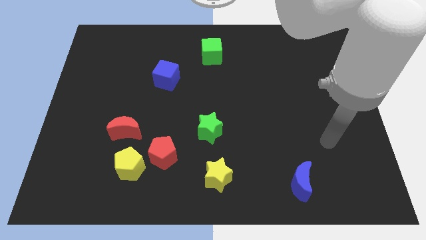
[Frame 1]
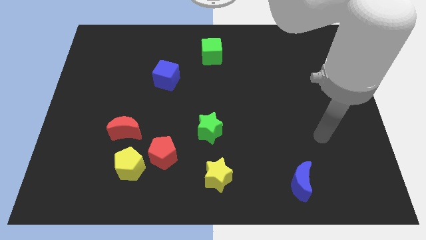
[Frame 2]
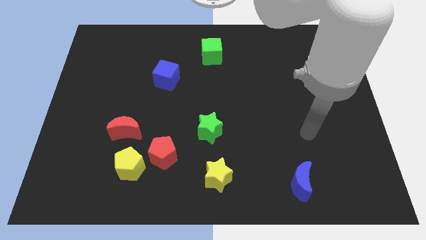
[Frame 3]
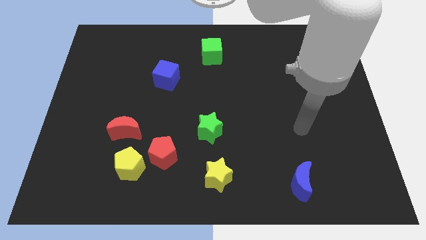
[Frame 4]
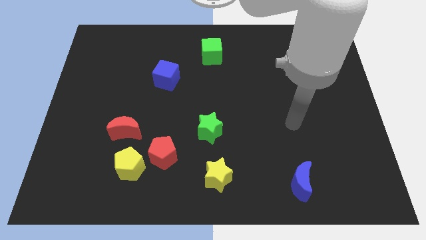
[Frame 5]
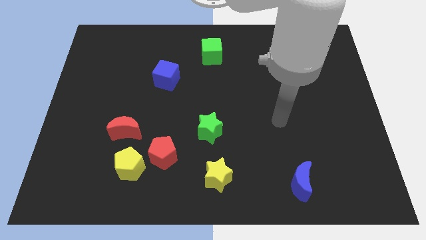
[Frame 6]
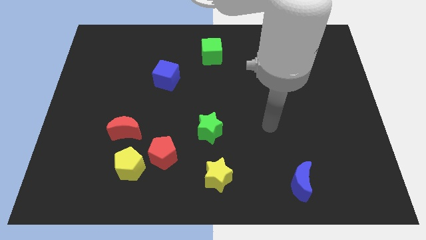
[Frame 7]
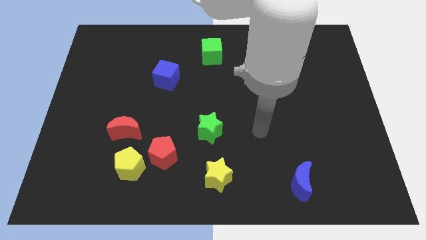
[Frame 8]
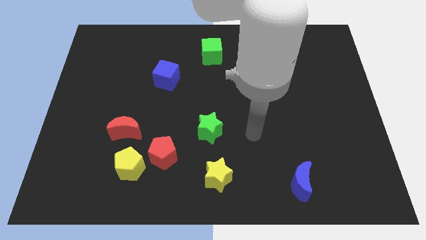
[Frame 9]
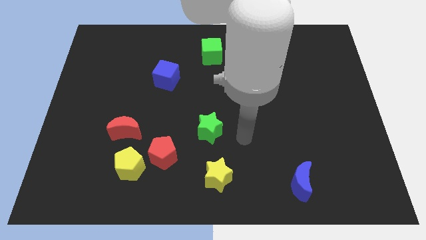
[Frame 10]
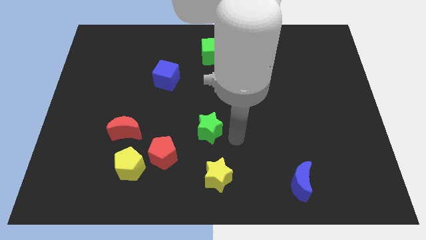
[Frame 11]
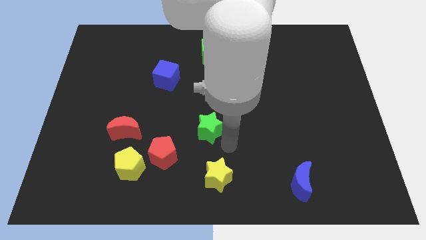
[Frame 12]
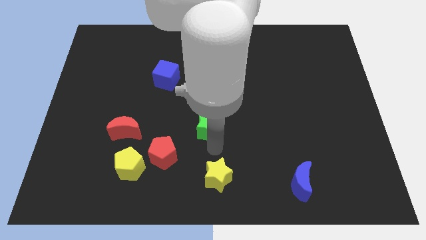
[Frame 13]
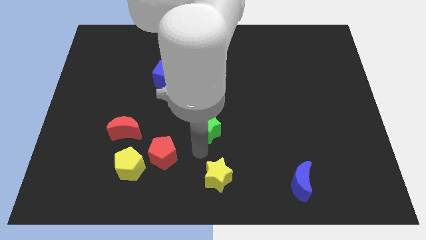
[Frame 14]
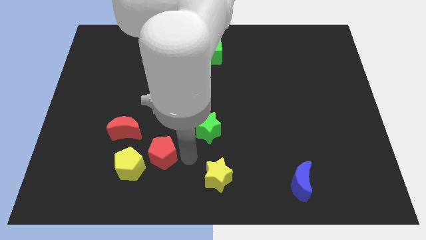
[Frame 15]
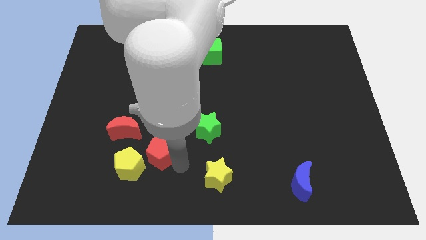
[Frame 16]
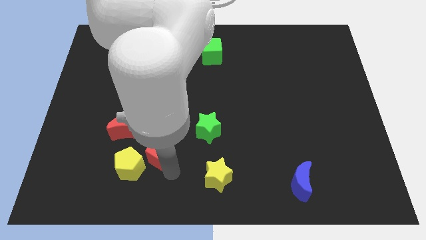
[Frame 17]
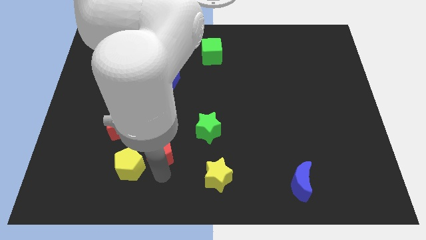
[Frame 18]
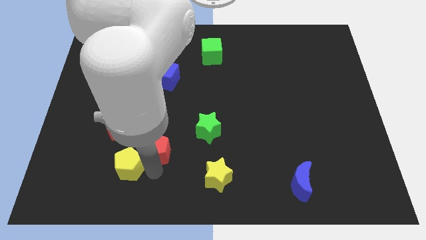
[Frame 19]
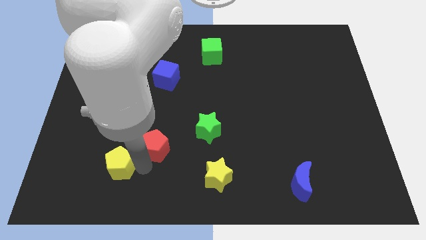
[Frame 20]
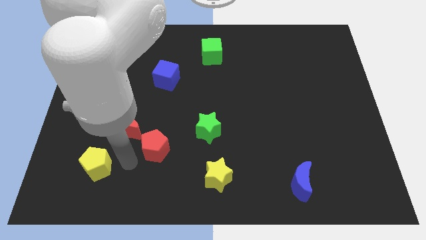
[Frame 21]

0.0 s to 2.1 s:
separate the red pentagon from the yellow pentagon

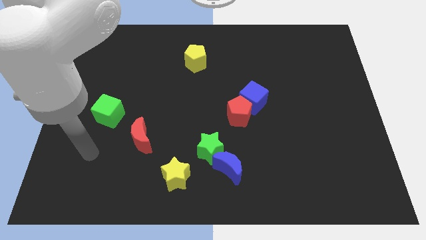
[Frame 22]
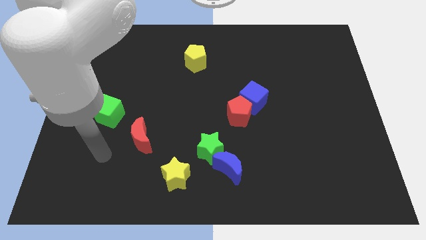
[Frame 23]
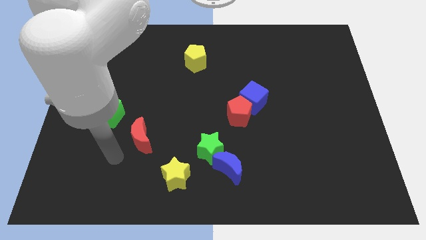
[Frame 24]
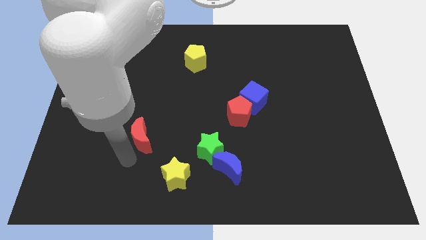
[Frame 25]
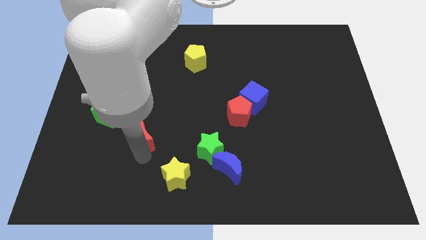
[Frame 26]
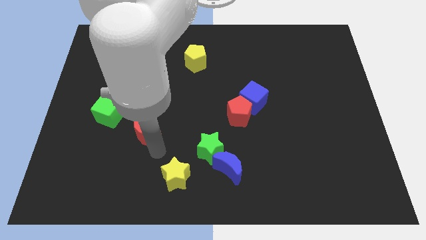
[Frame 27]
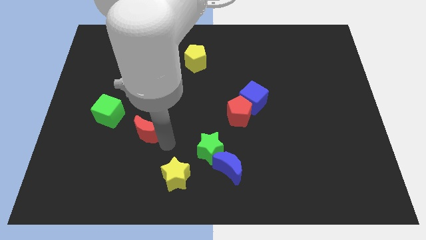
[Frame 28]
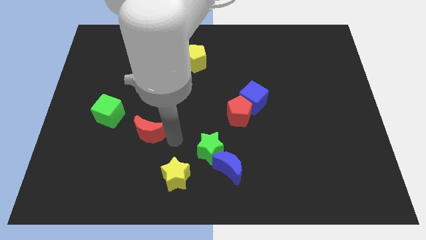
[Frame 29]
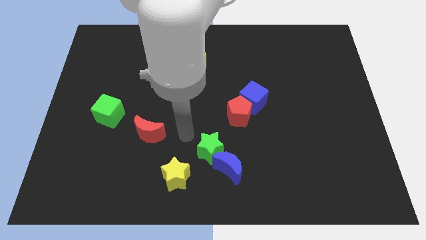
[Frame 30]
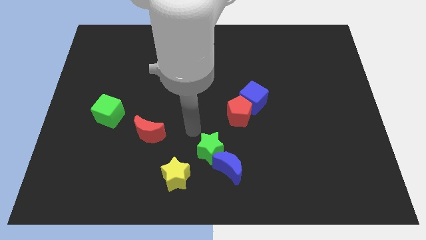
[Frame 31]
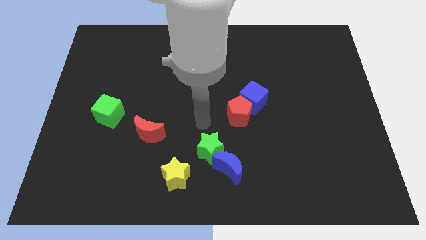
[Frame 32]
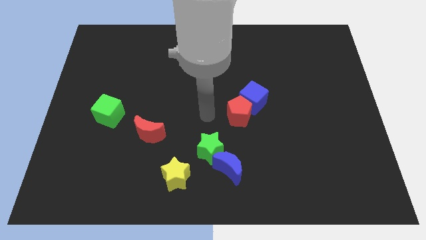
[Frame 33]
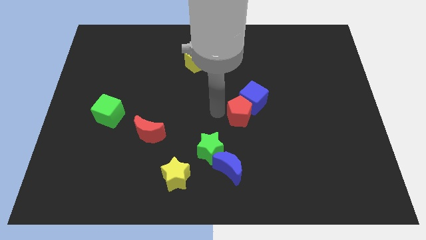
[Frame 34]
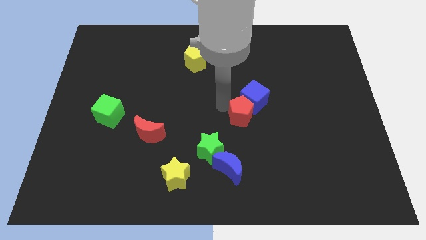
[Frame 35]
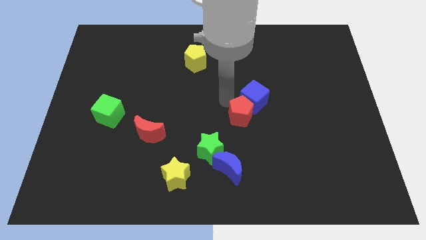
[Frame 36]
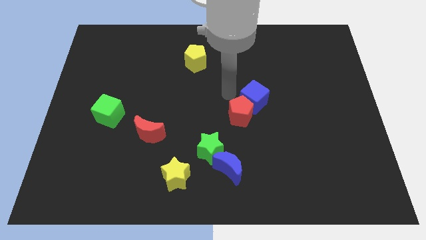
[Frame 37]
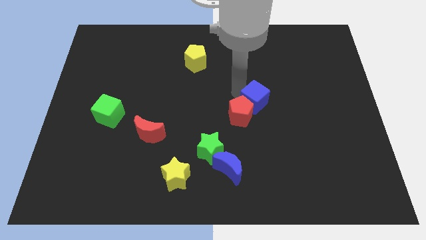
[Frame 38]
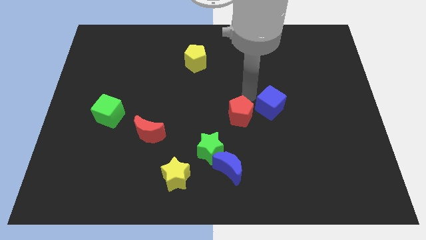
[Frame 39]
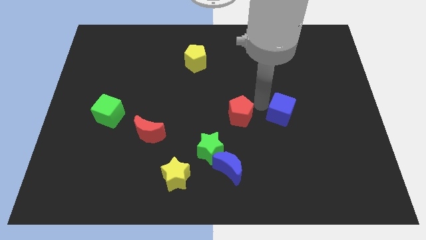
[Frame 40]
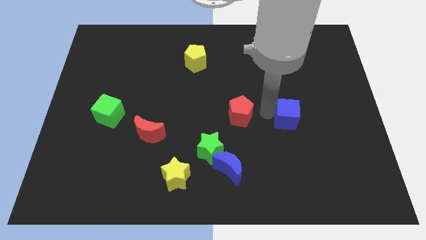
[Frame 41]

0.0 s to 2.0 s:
separate the red pentagon from the blue cube

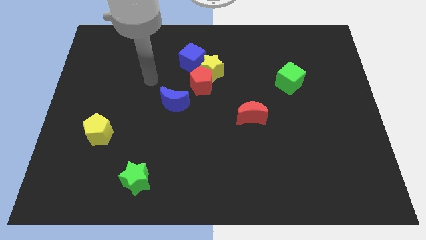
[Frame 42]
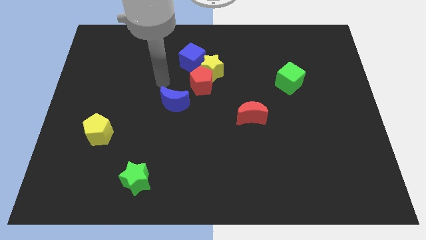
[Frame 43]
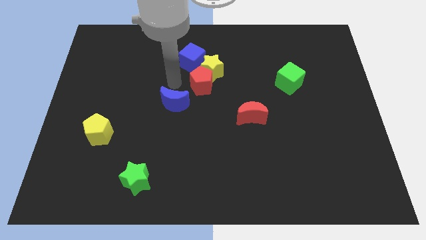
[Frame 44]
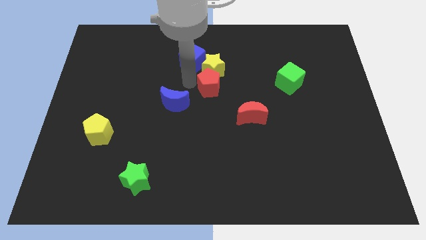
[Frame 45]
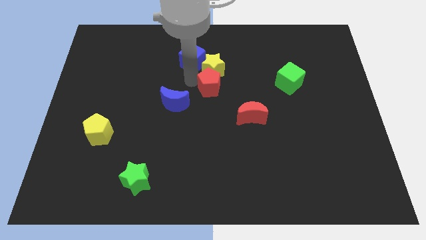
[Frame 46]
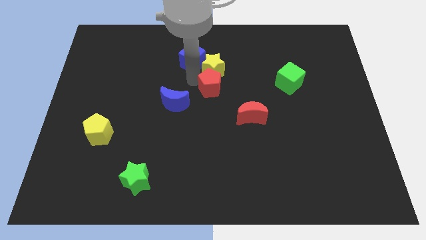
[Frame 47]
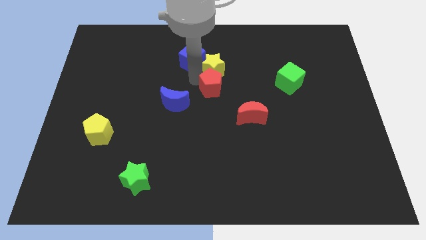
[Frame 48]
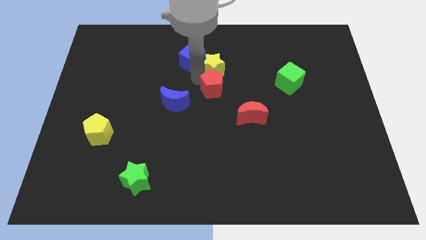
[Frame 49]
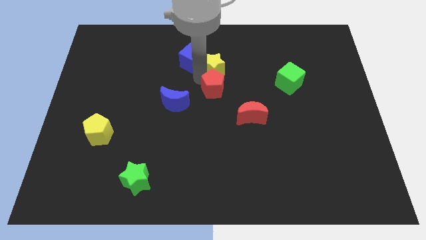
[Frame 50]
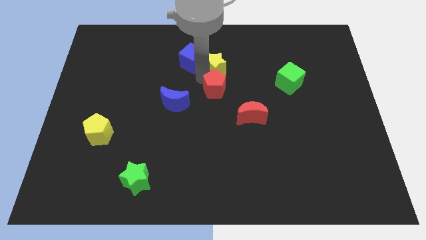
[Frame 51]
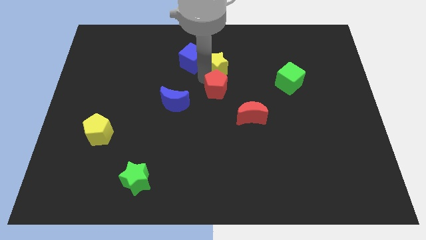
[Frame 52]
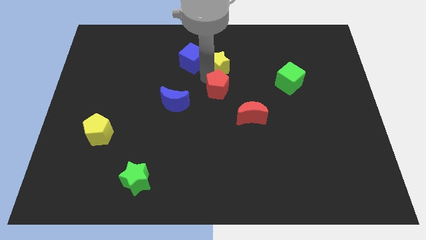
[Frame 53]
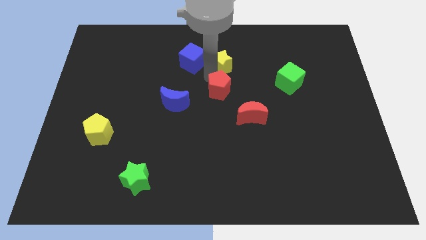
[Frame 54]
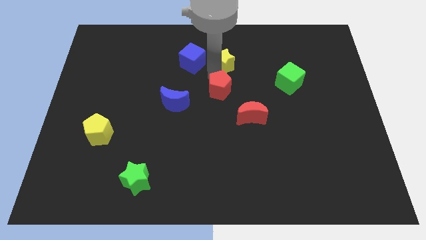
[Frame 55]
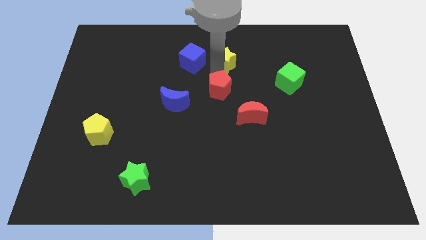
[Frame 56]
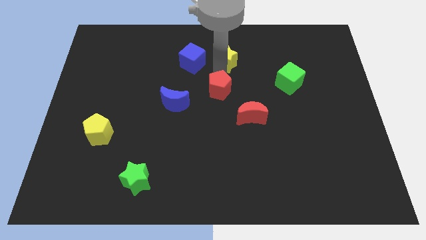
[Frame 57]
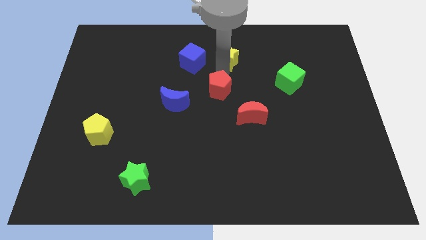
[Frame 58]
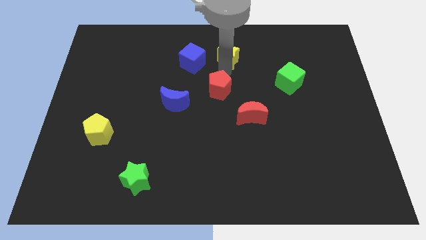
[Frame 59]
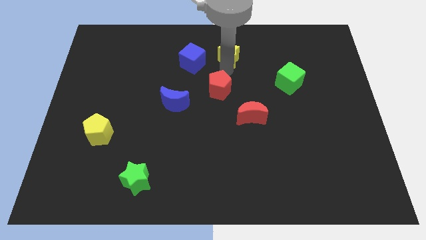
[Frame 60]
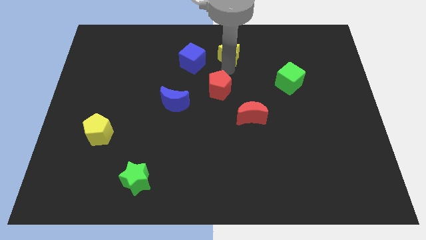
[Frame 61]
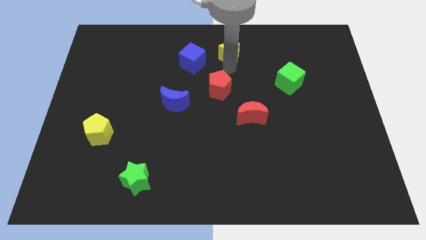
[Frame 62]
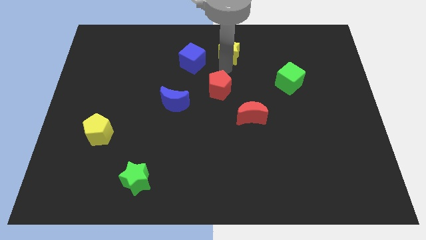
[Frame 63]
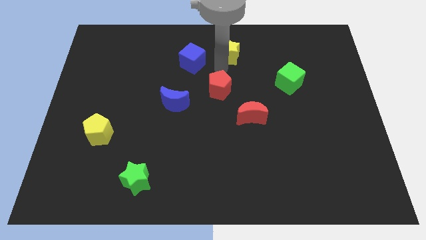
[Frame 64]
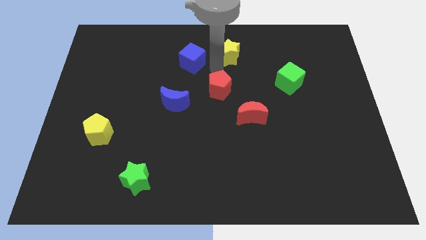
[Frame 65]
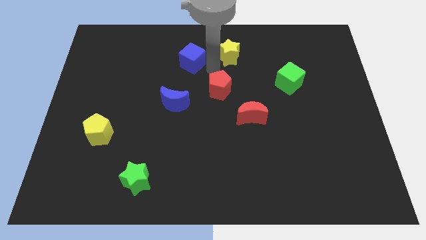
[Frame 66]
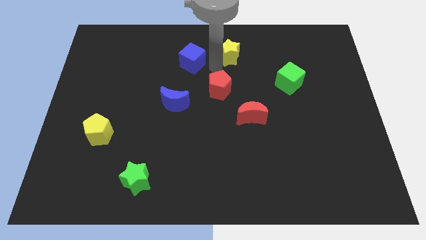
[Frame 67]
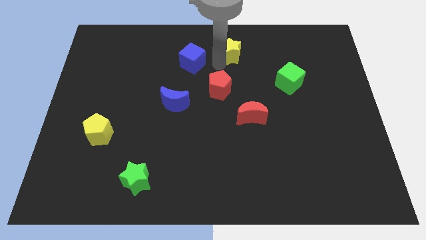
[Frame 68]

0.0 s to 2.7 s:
separate the yellow star from the red pentagon and blue cube

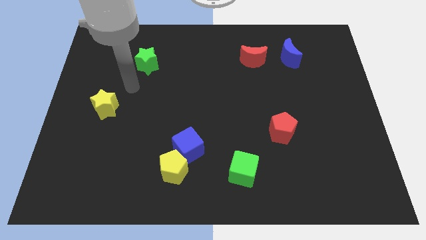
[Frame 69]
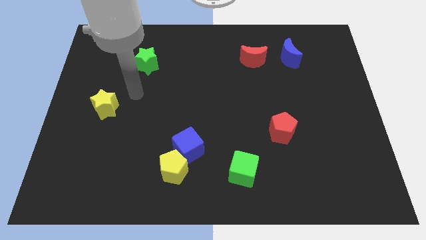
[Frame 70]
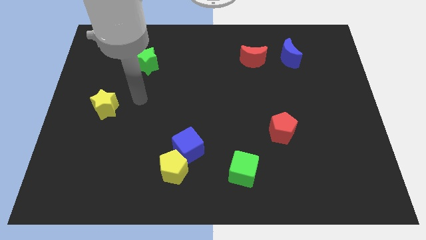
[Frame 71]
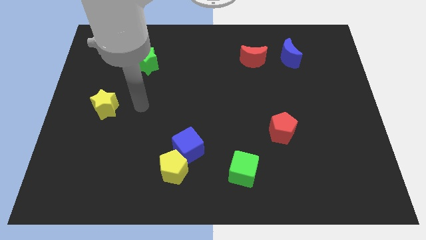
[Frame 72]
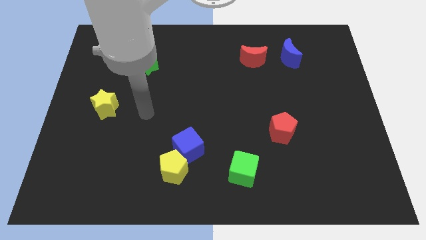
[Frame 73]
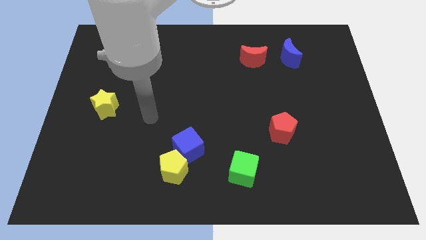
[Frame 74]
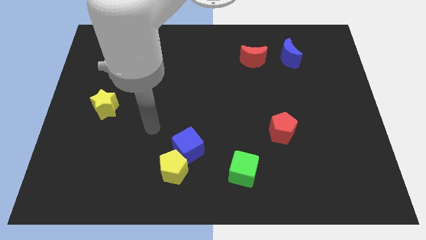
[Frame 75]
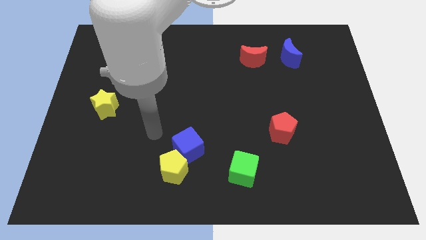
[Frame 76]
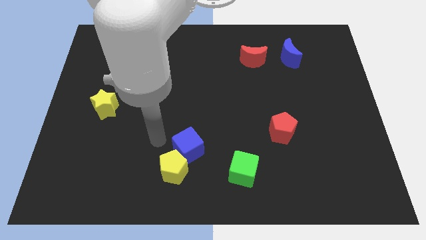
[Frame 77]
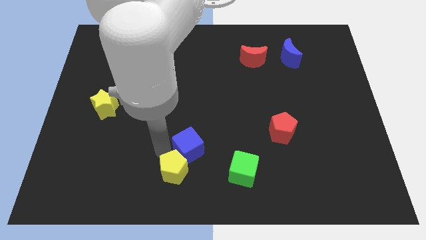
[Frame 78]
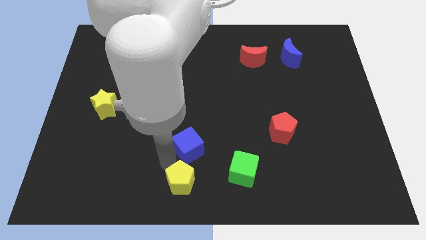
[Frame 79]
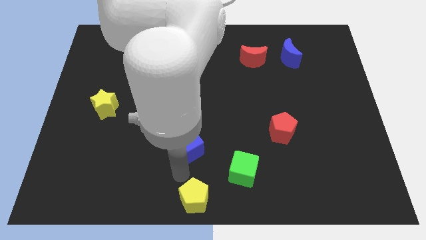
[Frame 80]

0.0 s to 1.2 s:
move the blue cube away from the yellow pentagon

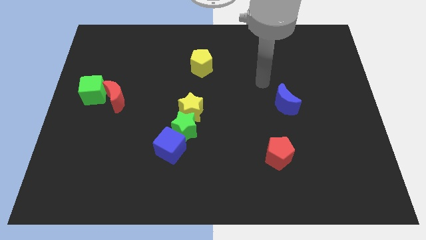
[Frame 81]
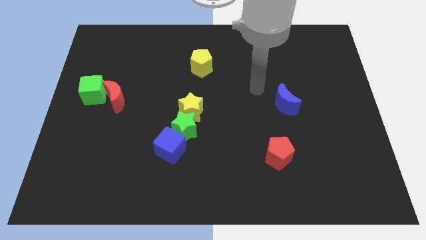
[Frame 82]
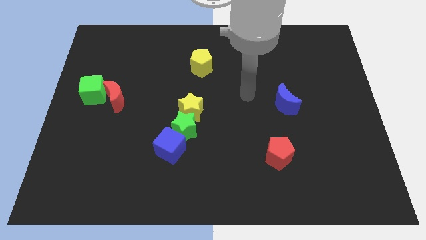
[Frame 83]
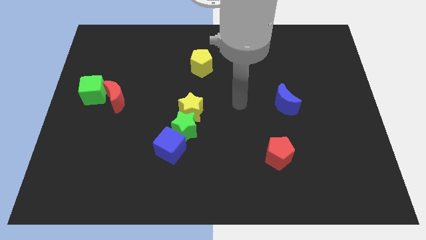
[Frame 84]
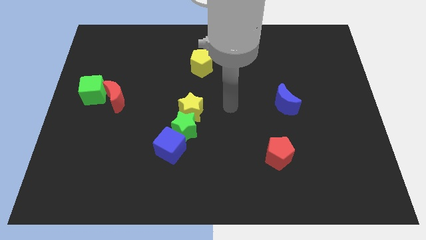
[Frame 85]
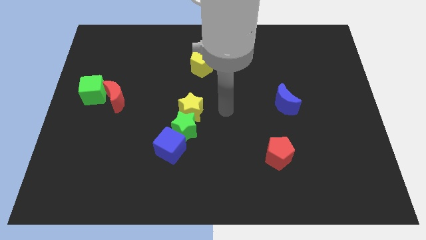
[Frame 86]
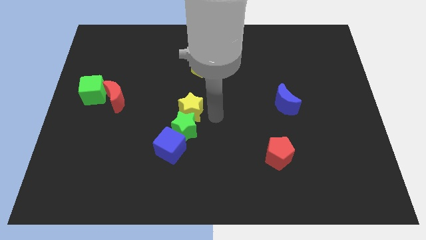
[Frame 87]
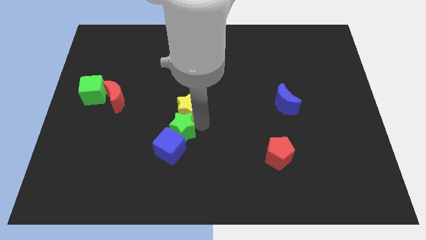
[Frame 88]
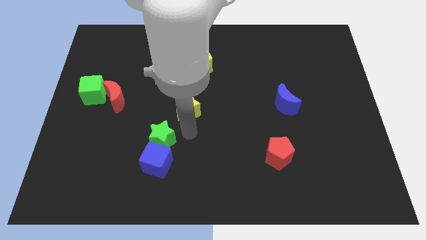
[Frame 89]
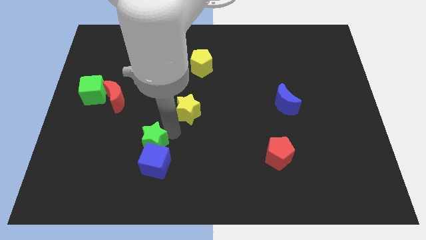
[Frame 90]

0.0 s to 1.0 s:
move the yellow star away from the green star

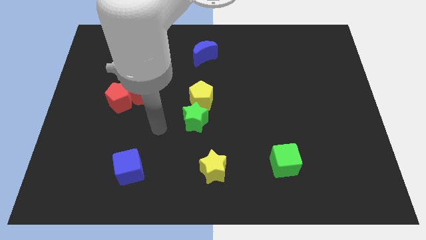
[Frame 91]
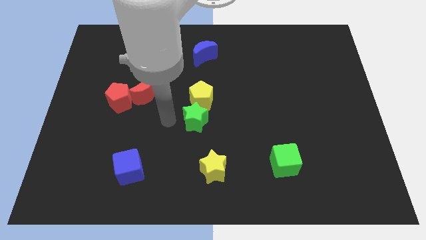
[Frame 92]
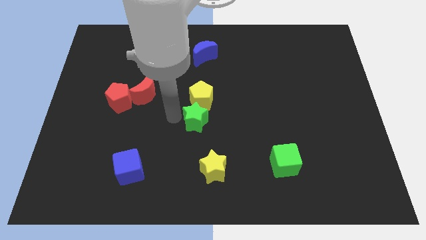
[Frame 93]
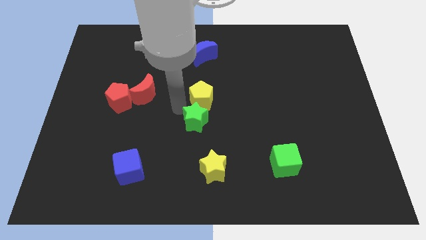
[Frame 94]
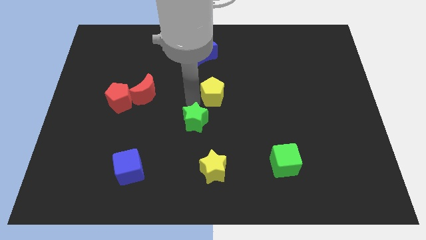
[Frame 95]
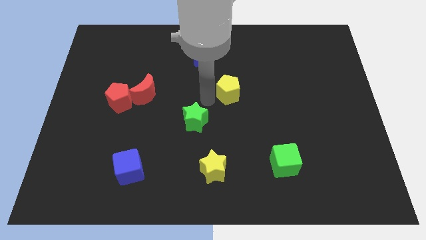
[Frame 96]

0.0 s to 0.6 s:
separate the green star from the yellow pentagon
